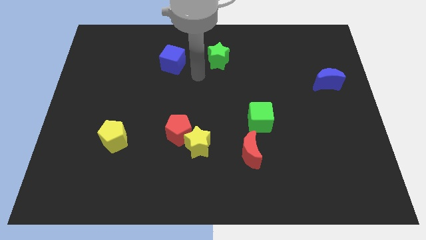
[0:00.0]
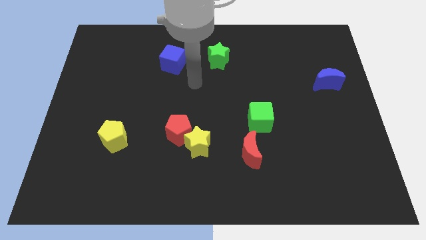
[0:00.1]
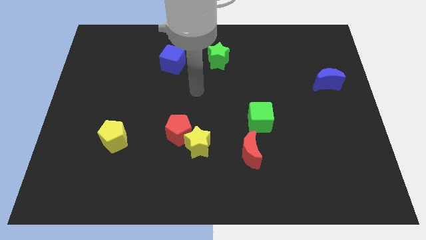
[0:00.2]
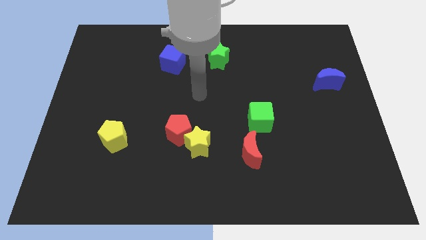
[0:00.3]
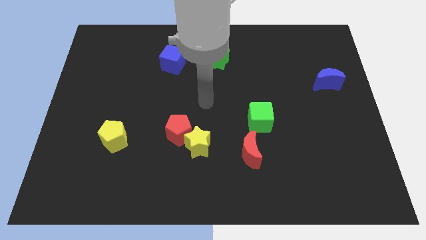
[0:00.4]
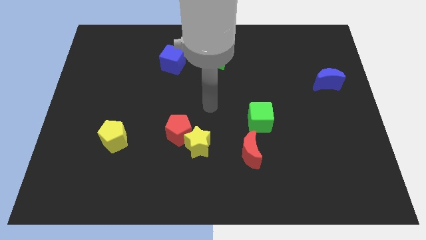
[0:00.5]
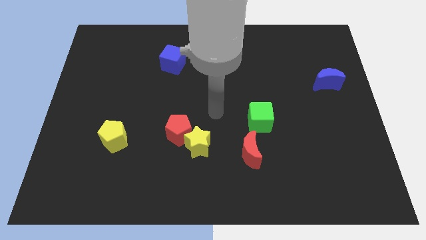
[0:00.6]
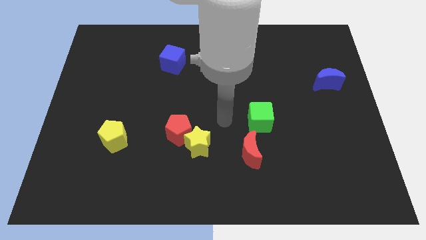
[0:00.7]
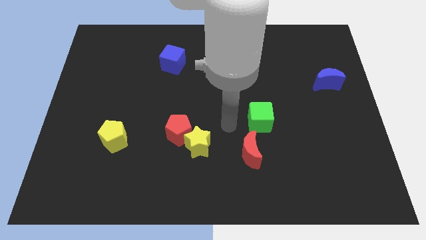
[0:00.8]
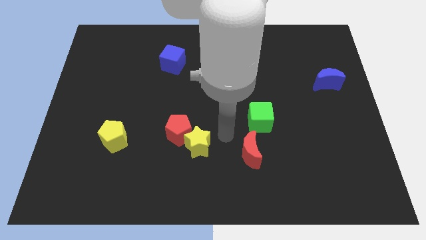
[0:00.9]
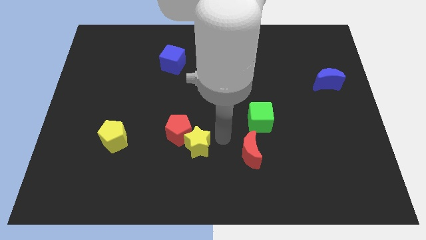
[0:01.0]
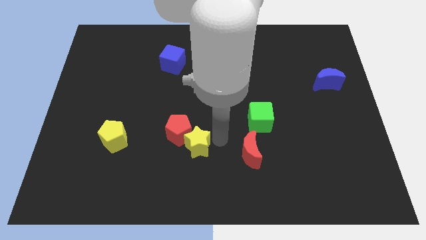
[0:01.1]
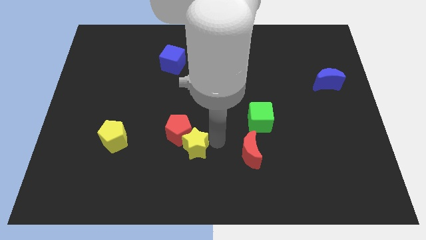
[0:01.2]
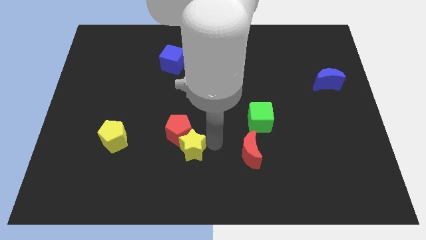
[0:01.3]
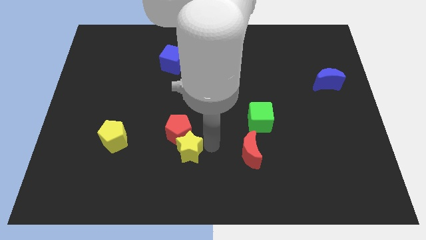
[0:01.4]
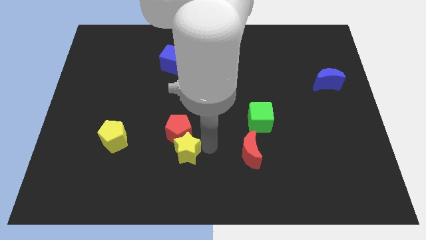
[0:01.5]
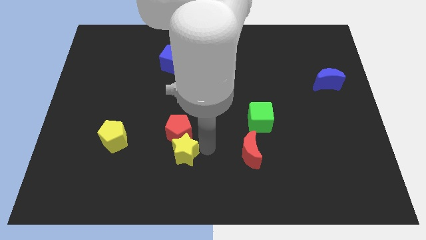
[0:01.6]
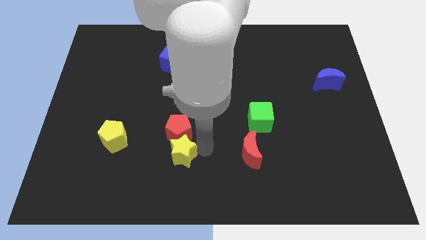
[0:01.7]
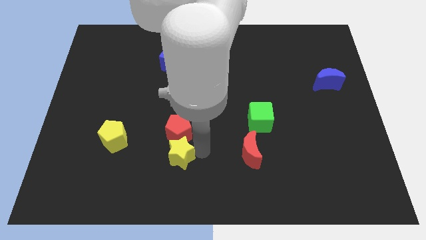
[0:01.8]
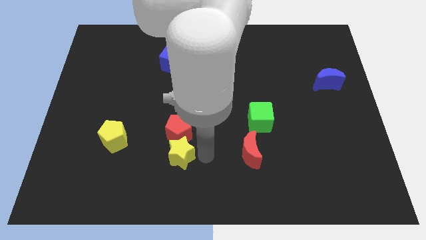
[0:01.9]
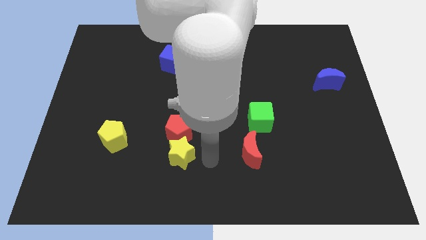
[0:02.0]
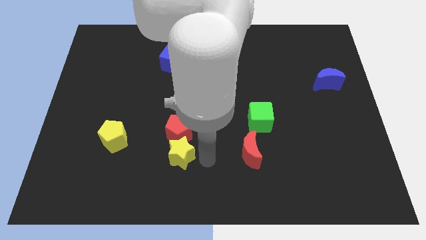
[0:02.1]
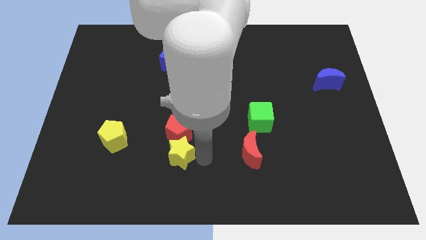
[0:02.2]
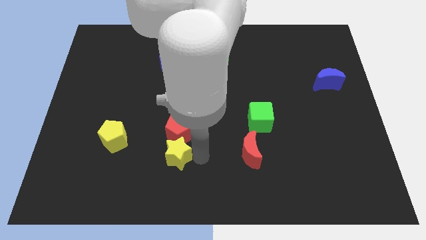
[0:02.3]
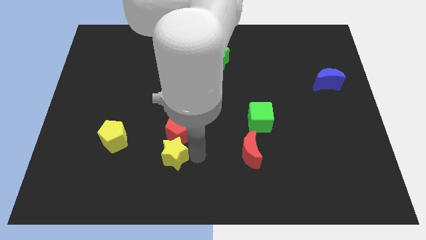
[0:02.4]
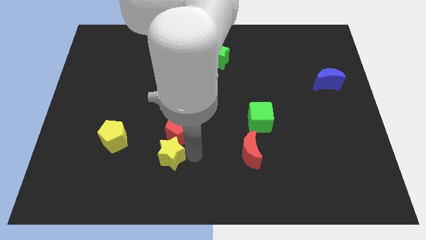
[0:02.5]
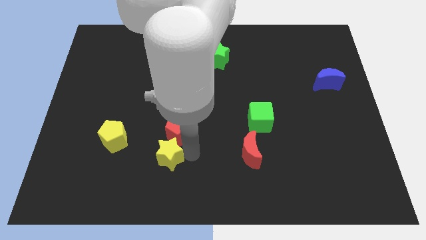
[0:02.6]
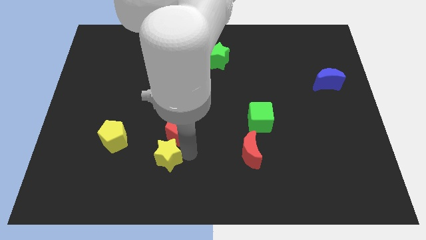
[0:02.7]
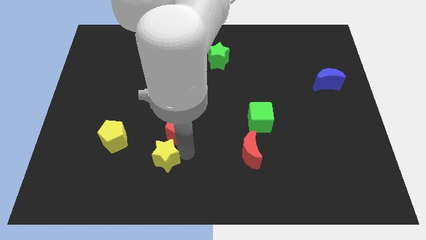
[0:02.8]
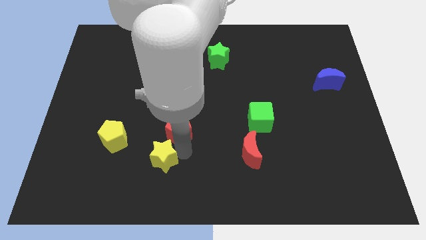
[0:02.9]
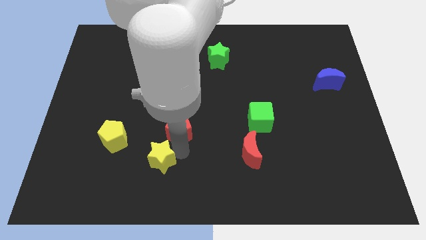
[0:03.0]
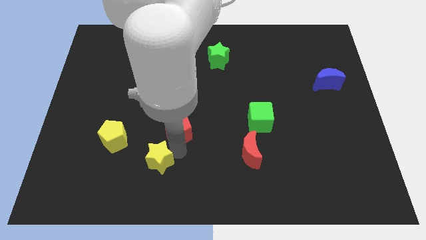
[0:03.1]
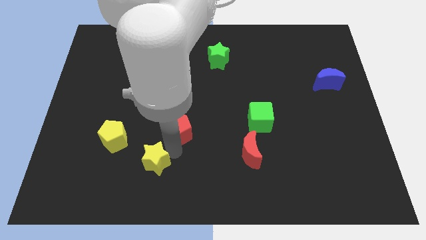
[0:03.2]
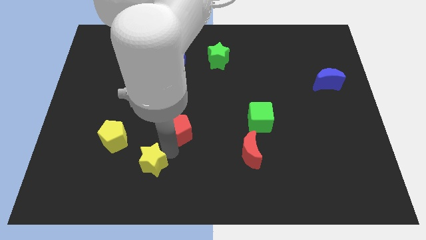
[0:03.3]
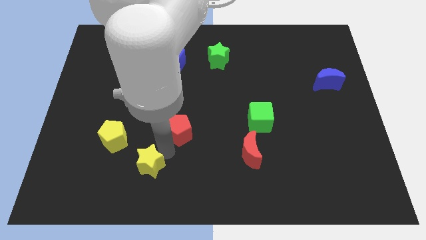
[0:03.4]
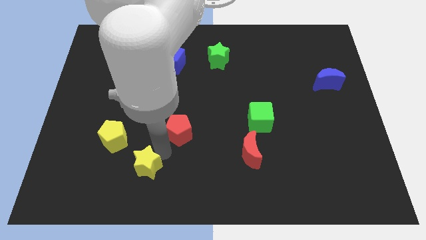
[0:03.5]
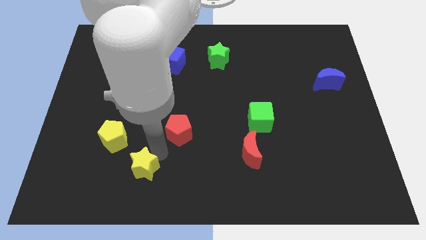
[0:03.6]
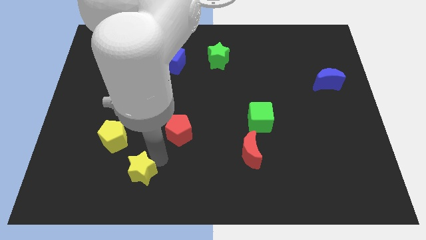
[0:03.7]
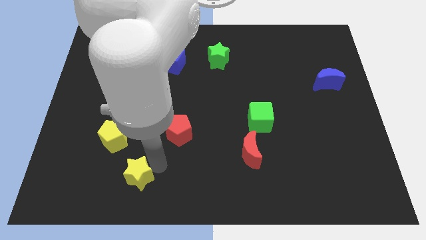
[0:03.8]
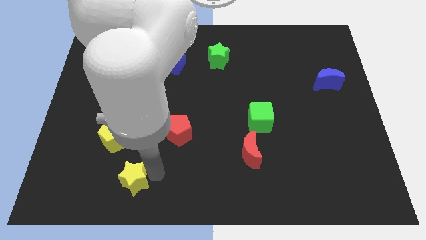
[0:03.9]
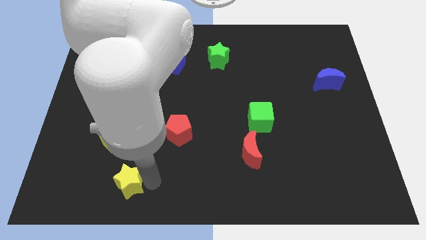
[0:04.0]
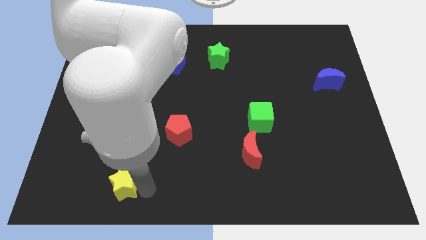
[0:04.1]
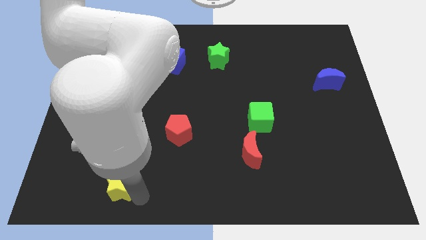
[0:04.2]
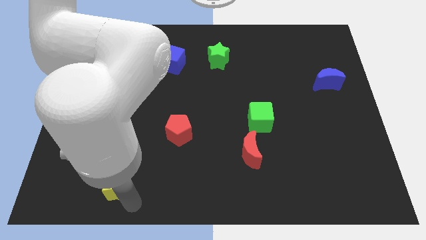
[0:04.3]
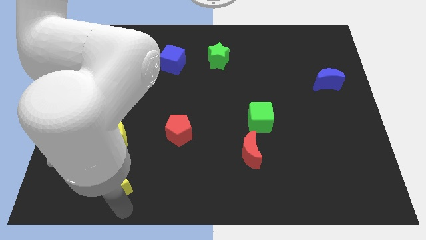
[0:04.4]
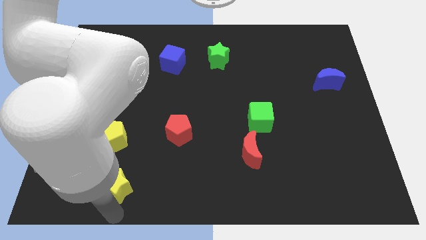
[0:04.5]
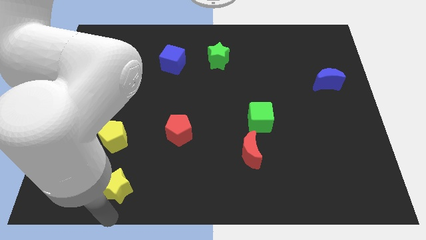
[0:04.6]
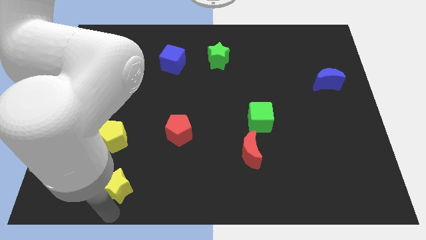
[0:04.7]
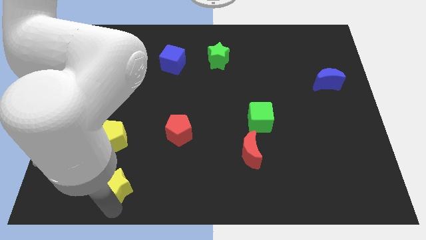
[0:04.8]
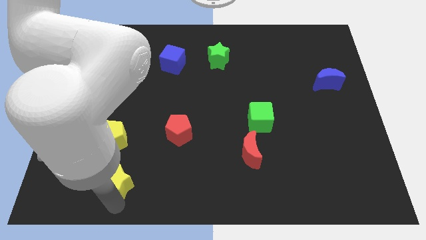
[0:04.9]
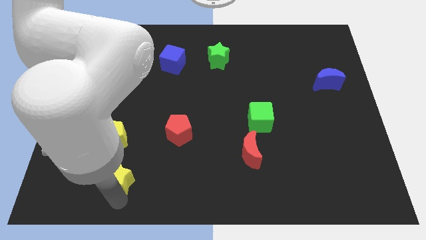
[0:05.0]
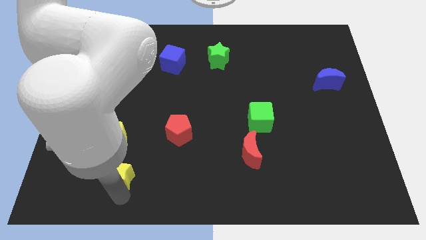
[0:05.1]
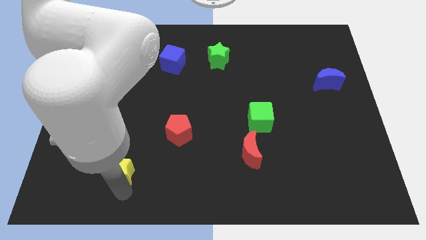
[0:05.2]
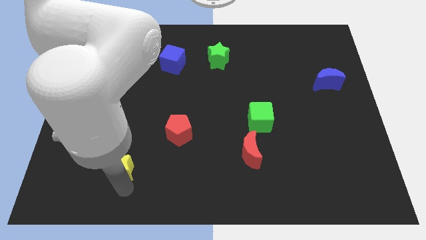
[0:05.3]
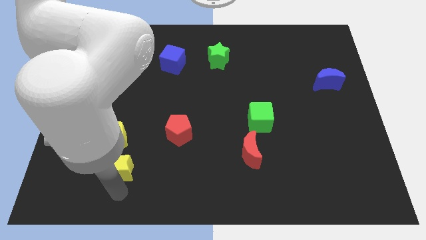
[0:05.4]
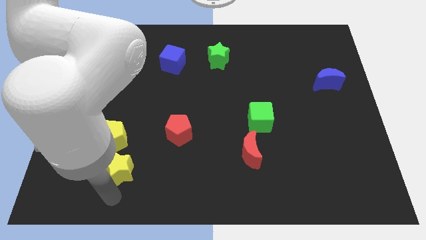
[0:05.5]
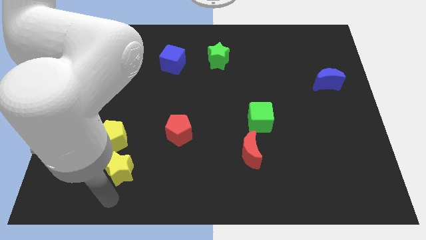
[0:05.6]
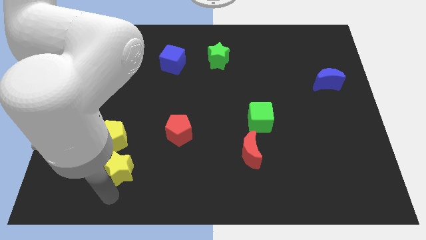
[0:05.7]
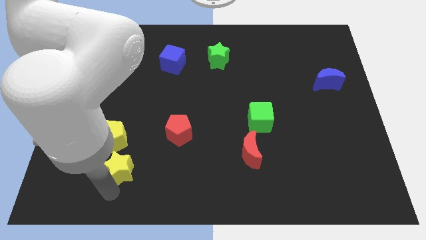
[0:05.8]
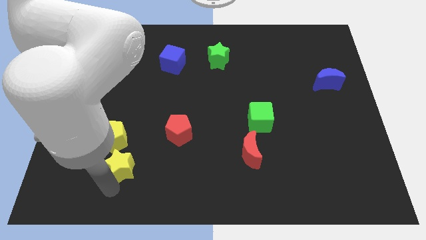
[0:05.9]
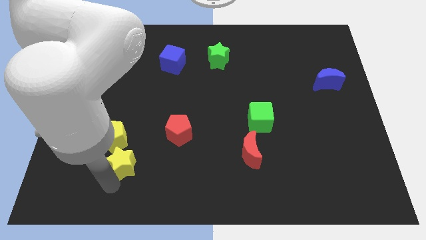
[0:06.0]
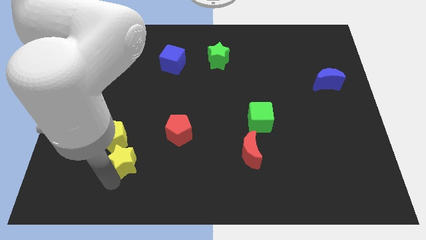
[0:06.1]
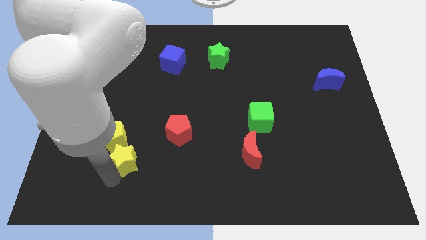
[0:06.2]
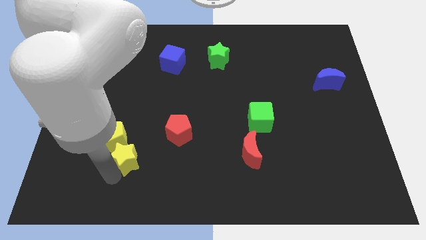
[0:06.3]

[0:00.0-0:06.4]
move the yellow star towards the yellow pentagon
